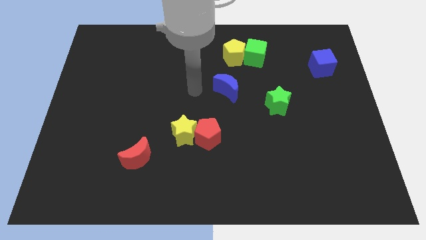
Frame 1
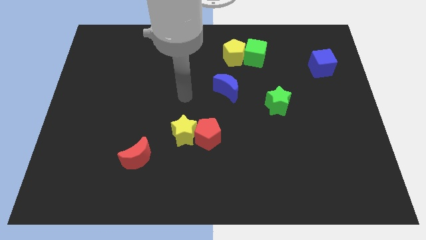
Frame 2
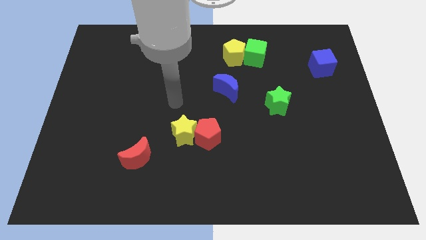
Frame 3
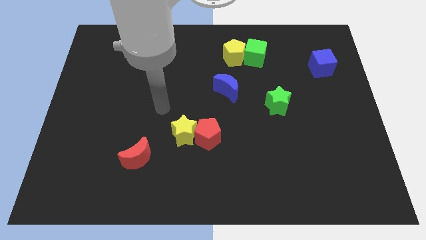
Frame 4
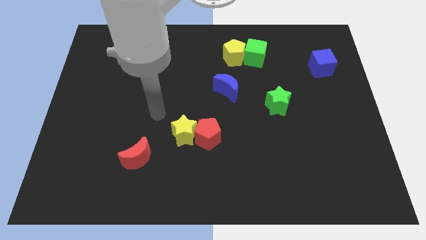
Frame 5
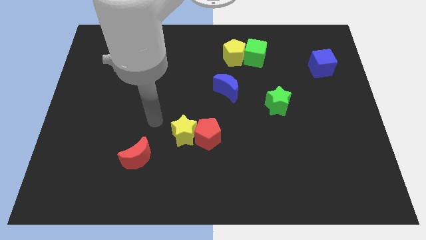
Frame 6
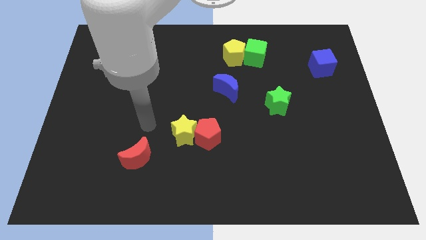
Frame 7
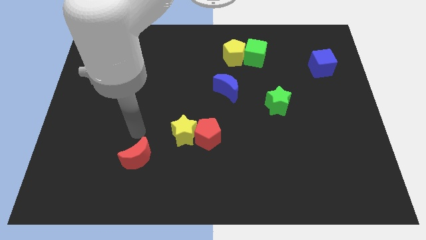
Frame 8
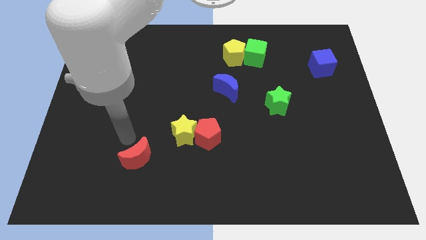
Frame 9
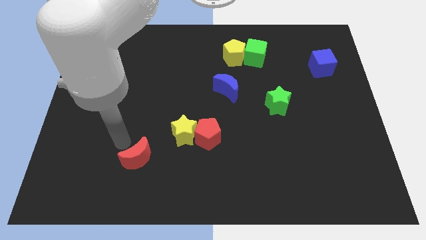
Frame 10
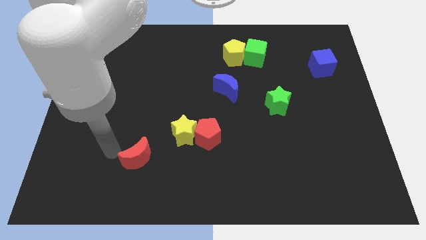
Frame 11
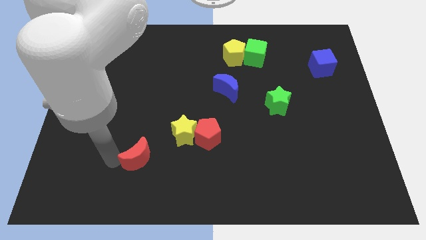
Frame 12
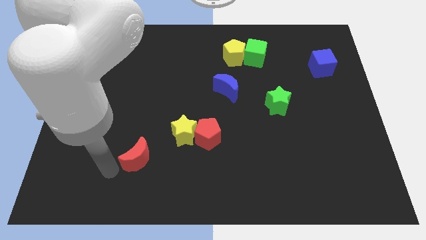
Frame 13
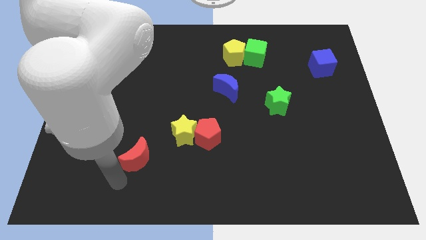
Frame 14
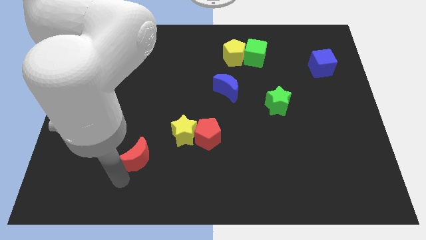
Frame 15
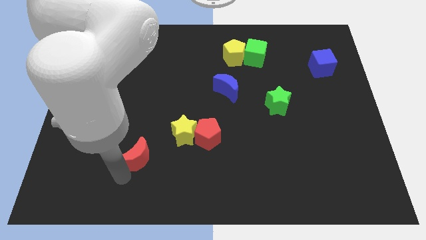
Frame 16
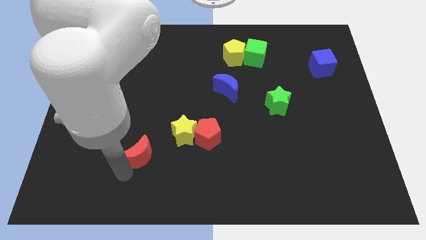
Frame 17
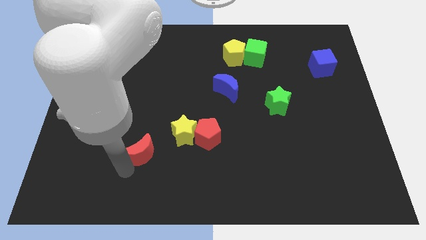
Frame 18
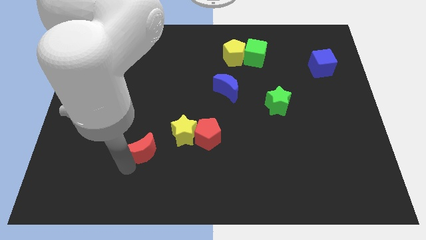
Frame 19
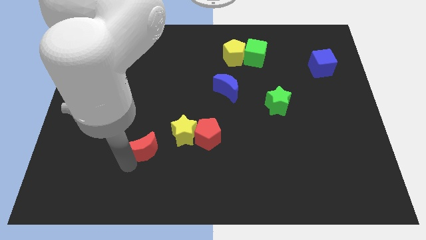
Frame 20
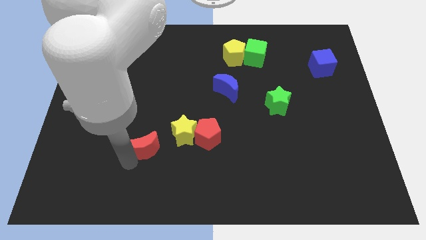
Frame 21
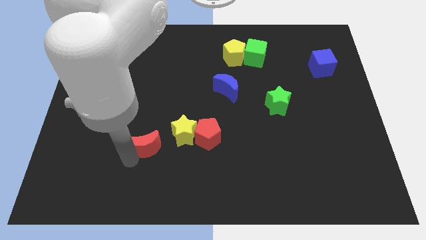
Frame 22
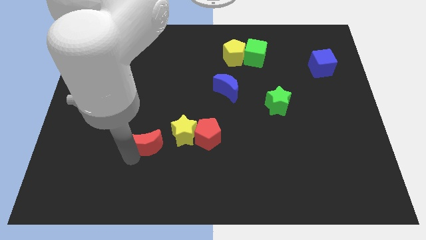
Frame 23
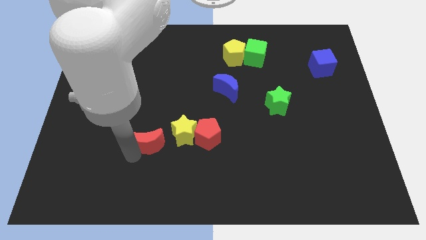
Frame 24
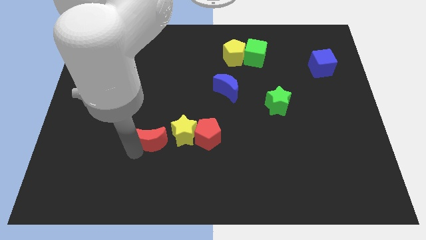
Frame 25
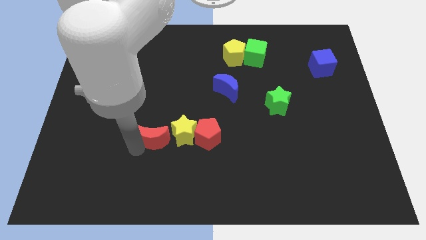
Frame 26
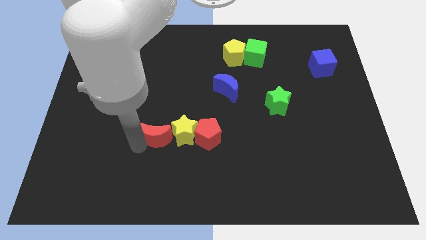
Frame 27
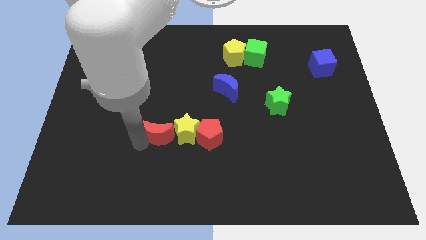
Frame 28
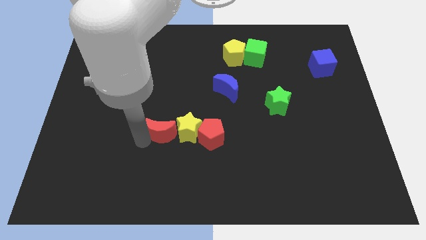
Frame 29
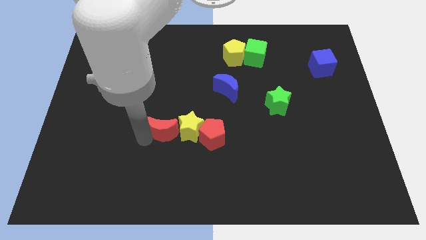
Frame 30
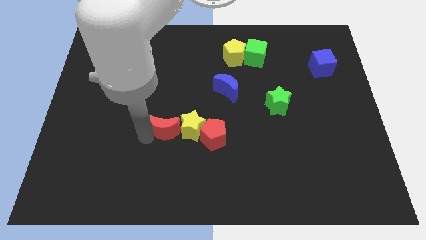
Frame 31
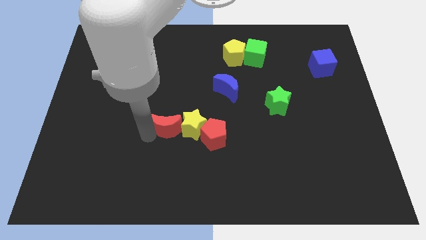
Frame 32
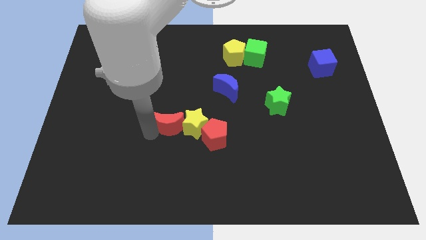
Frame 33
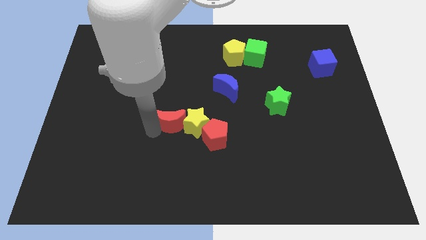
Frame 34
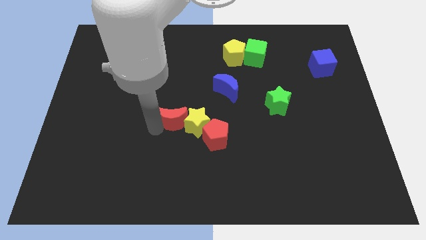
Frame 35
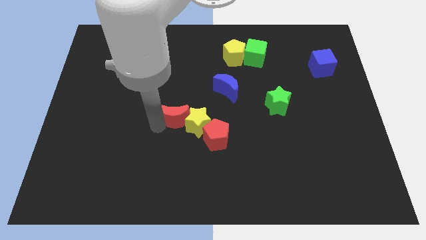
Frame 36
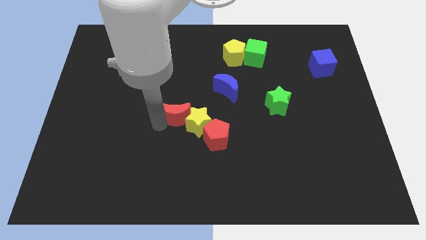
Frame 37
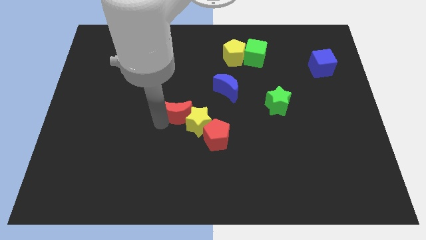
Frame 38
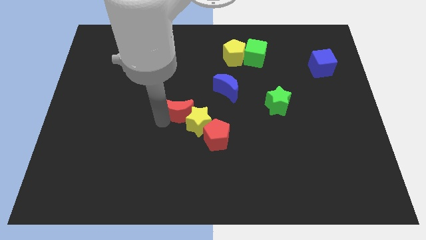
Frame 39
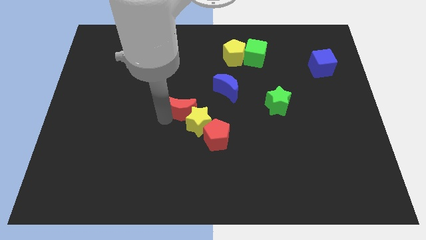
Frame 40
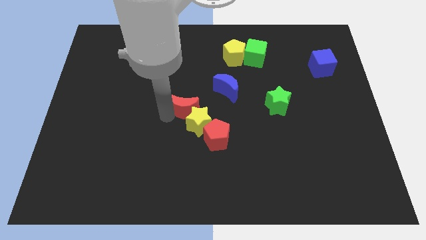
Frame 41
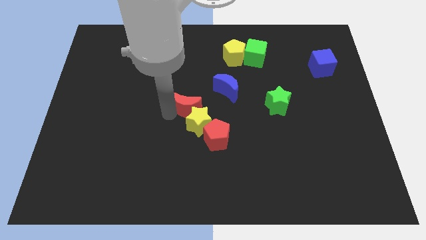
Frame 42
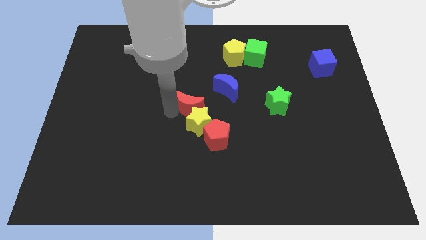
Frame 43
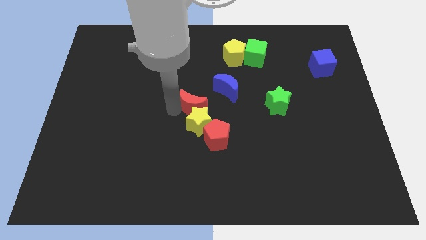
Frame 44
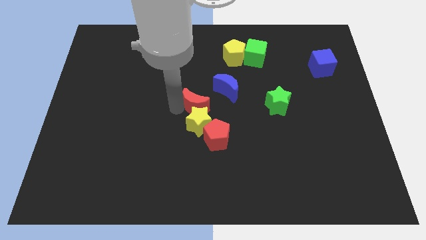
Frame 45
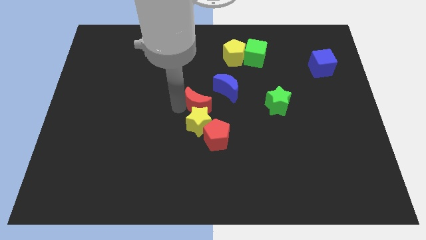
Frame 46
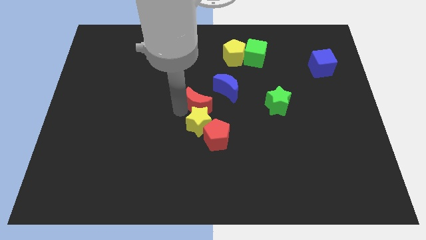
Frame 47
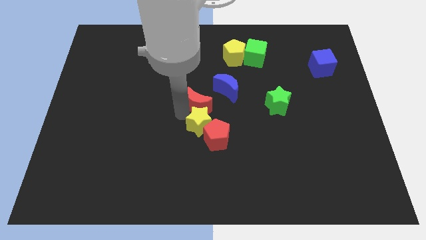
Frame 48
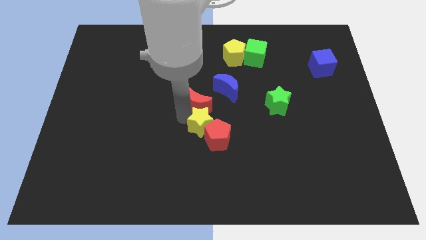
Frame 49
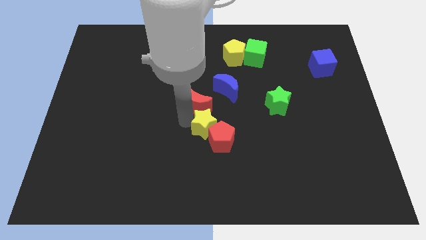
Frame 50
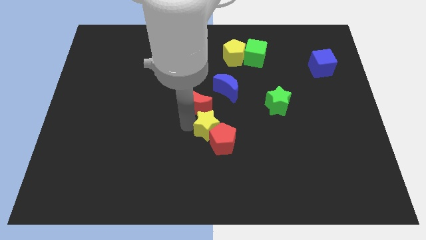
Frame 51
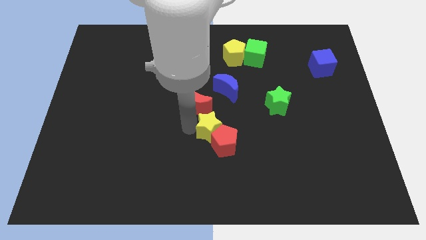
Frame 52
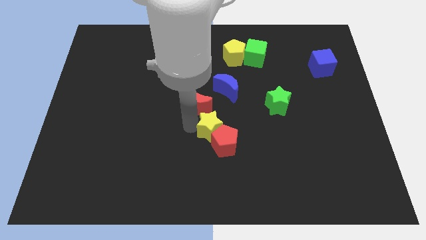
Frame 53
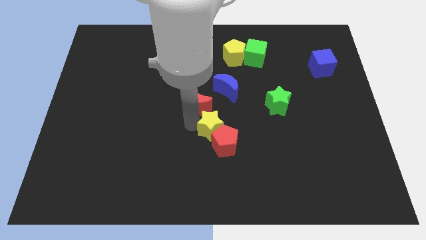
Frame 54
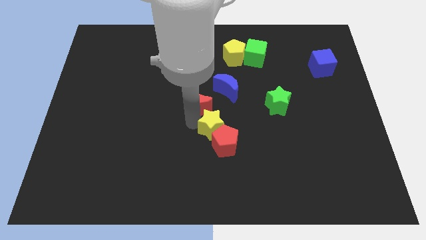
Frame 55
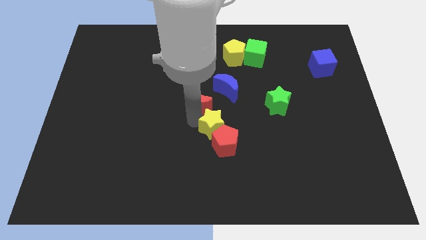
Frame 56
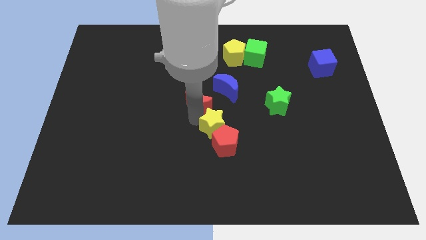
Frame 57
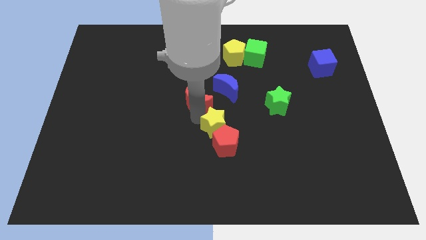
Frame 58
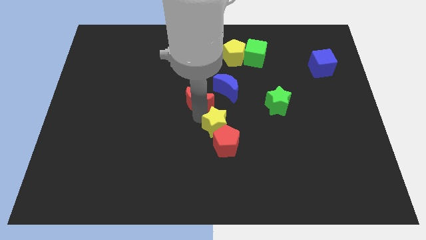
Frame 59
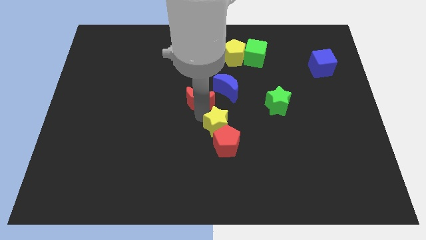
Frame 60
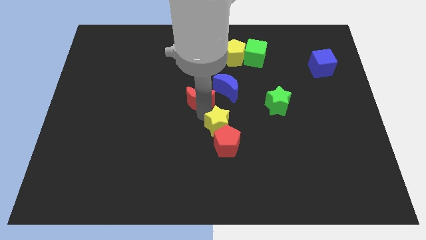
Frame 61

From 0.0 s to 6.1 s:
push the red moon upwards and right

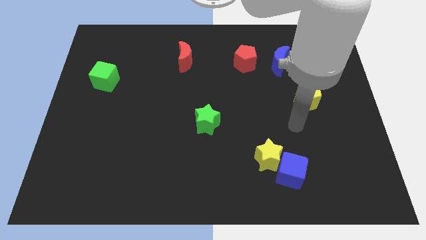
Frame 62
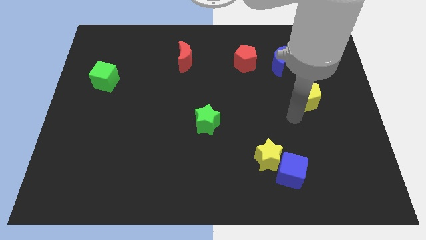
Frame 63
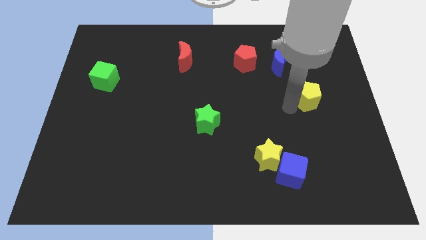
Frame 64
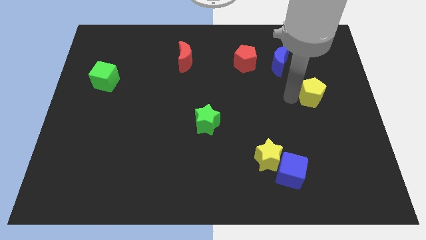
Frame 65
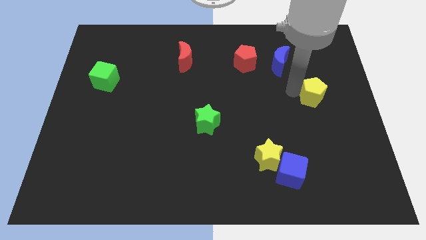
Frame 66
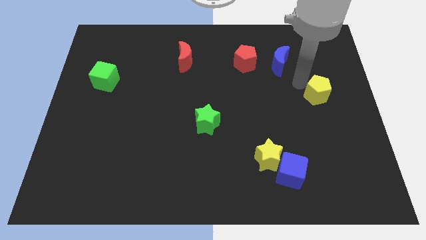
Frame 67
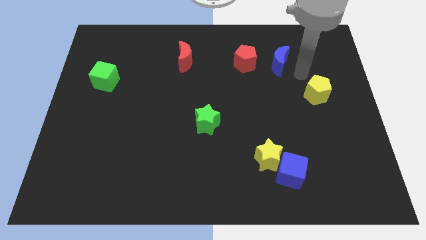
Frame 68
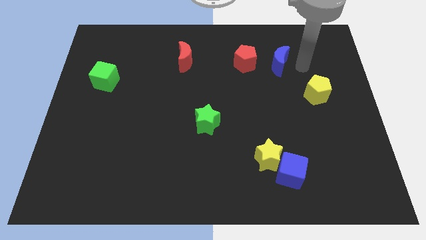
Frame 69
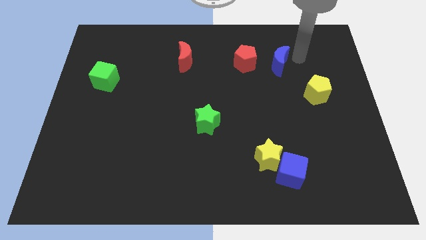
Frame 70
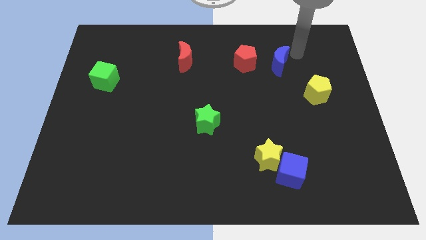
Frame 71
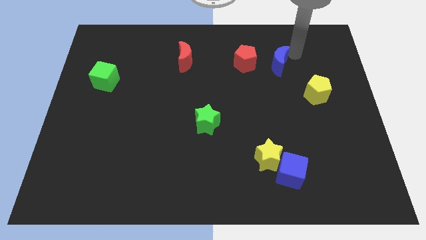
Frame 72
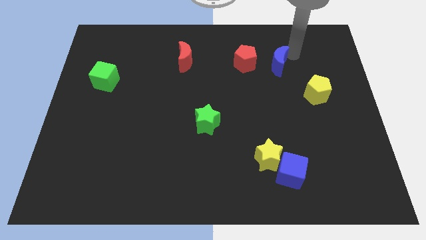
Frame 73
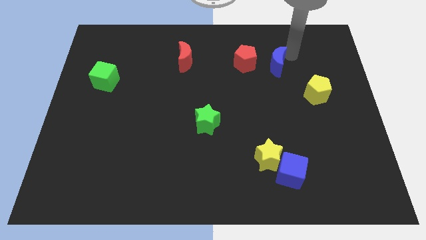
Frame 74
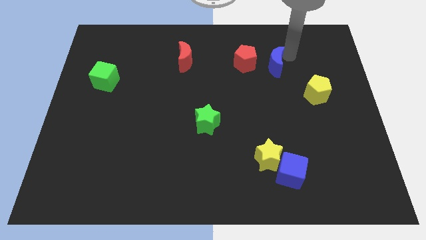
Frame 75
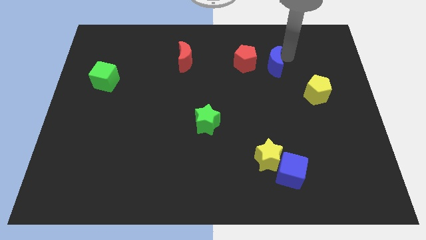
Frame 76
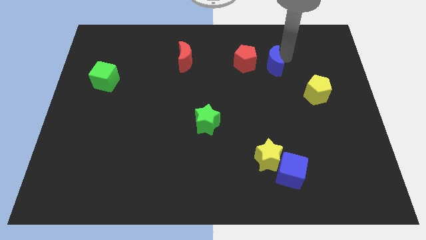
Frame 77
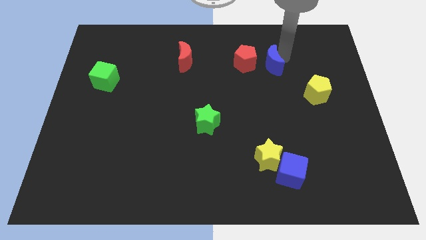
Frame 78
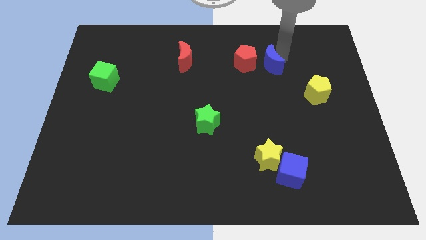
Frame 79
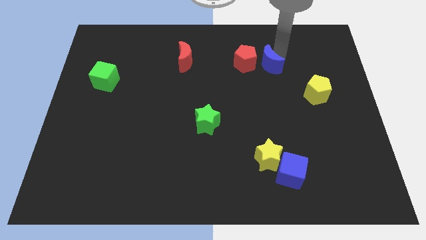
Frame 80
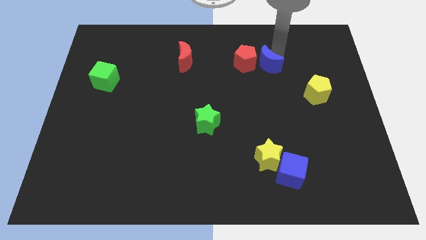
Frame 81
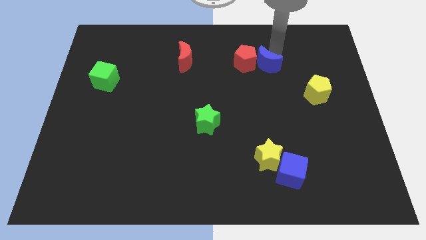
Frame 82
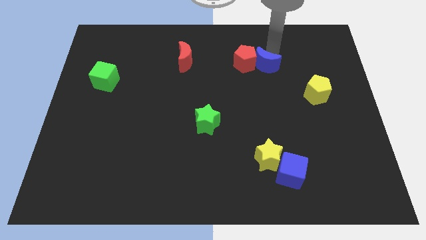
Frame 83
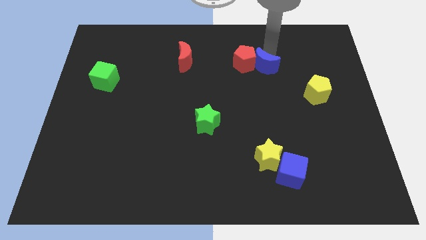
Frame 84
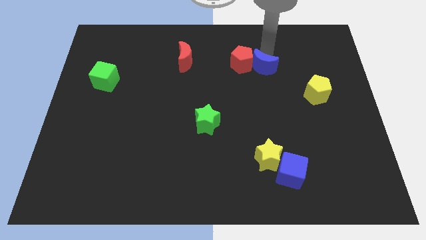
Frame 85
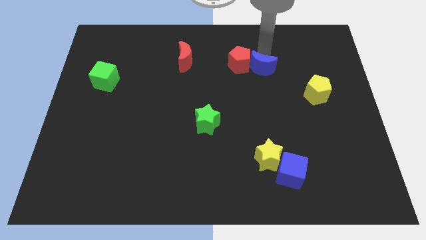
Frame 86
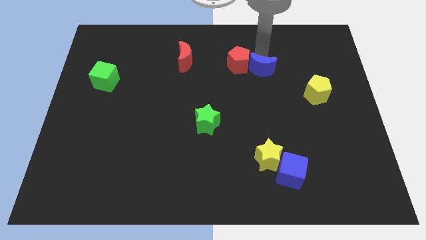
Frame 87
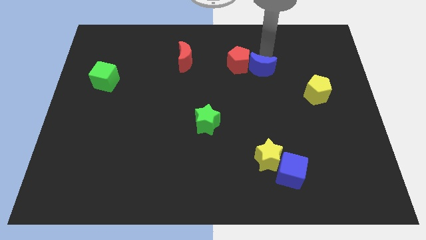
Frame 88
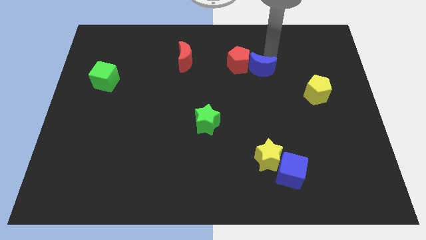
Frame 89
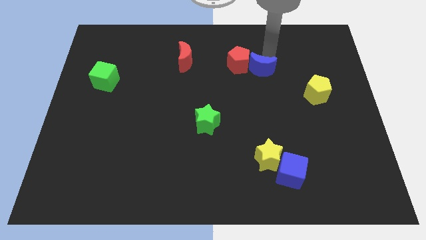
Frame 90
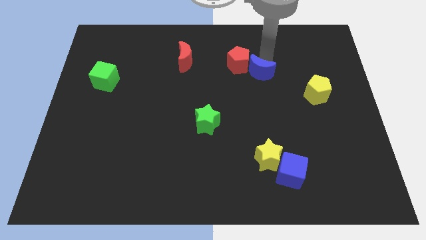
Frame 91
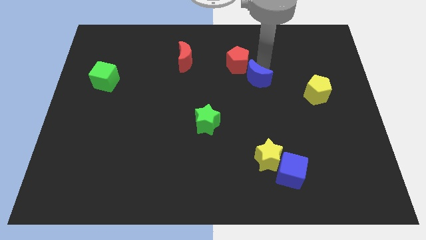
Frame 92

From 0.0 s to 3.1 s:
push the blue moon somewhat down and to the left diagonally
